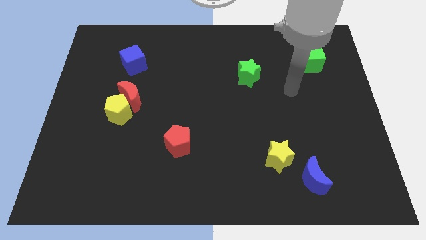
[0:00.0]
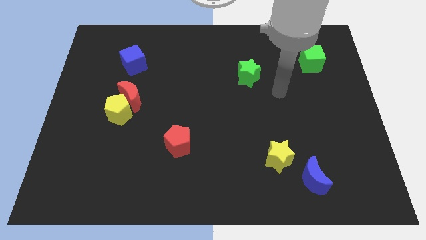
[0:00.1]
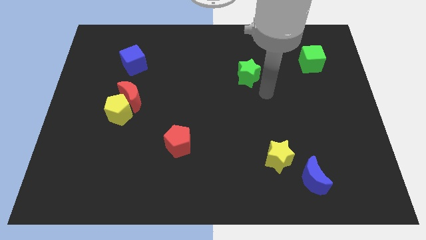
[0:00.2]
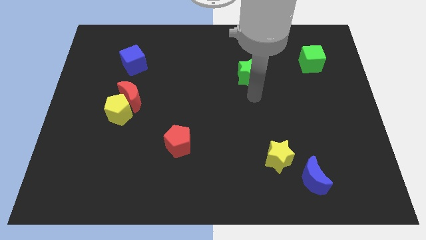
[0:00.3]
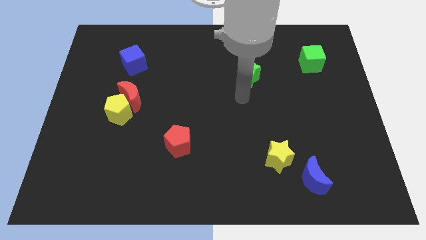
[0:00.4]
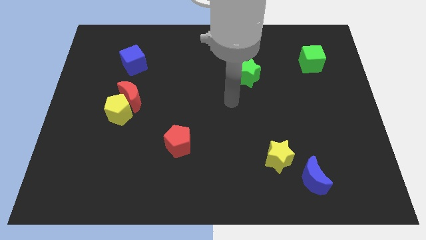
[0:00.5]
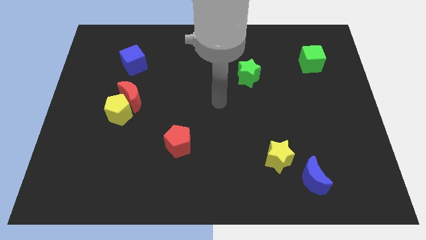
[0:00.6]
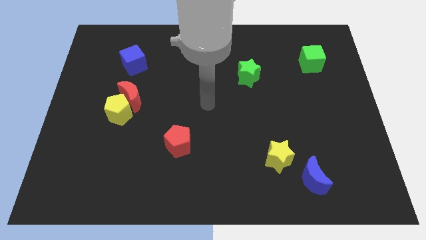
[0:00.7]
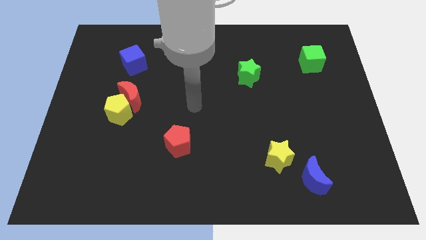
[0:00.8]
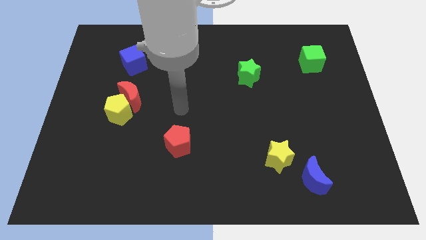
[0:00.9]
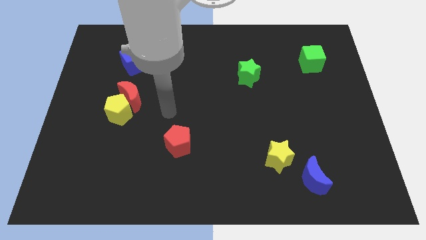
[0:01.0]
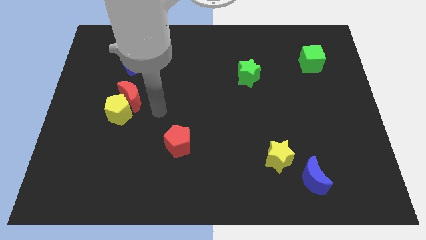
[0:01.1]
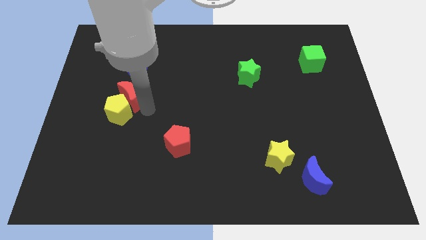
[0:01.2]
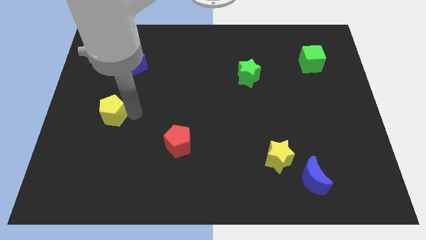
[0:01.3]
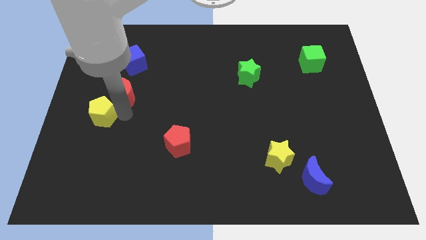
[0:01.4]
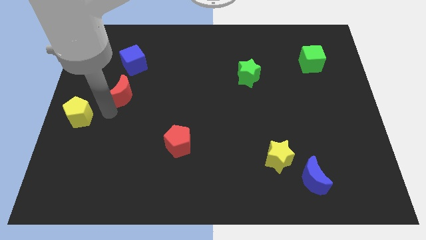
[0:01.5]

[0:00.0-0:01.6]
separate the red moon from the yellow pentagon

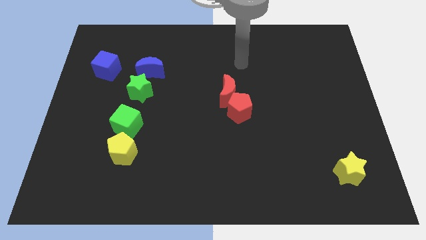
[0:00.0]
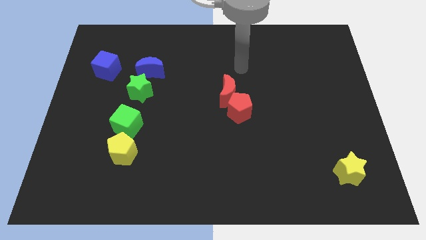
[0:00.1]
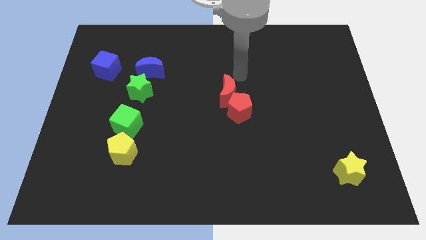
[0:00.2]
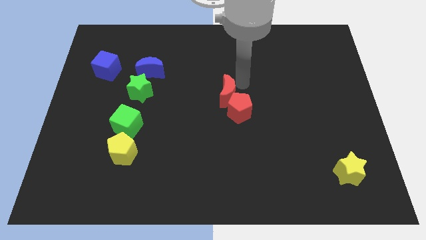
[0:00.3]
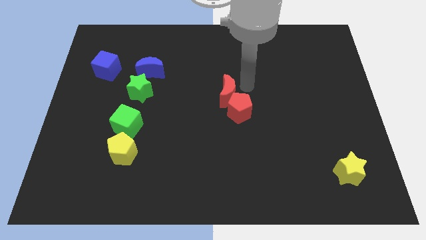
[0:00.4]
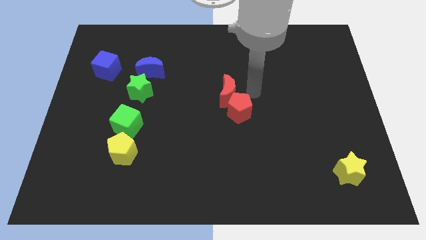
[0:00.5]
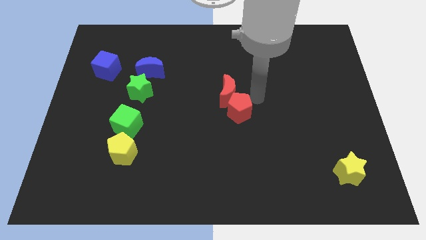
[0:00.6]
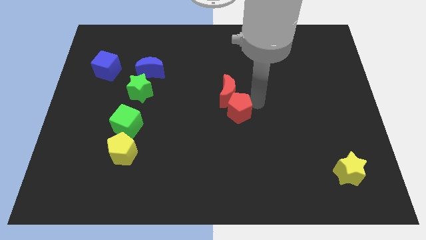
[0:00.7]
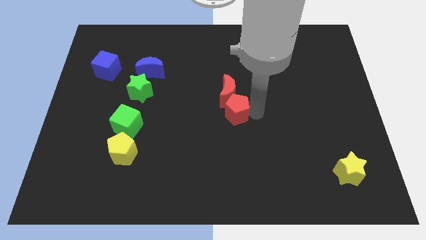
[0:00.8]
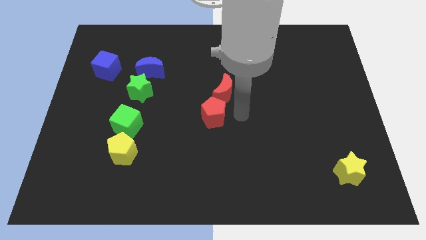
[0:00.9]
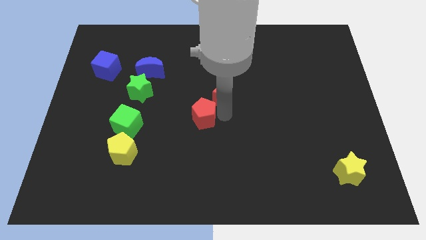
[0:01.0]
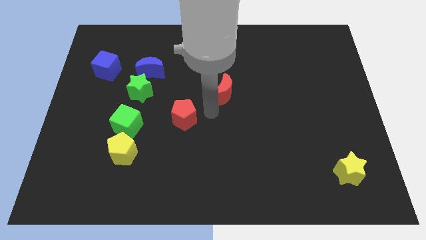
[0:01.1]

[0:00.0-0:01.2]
separate the red moon from the red pentagon

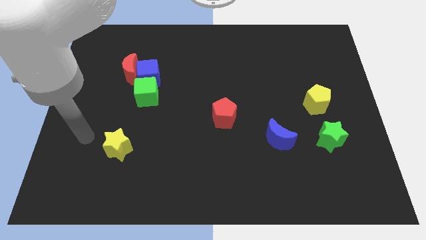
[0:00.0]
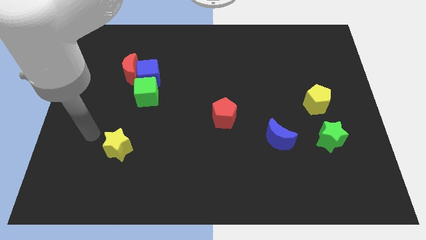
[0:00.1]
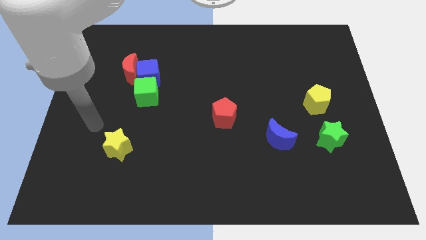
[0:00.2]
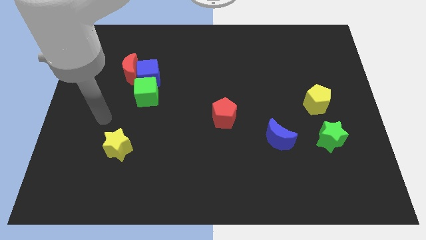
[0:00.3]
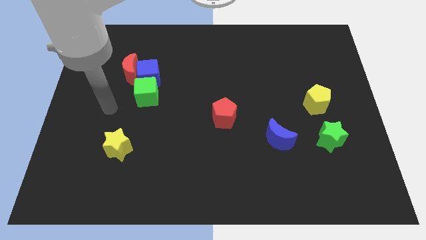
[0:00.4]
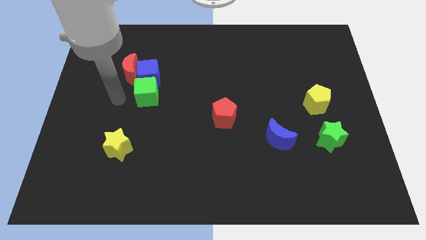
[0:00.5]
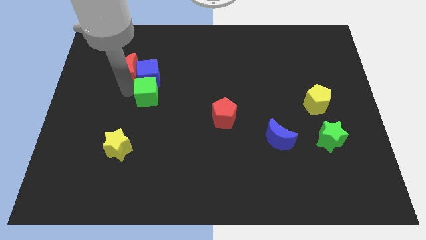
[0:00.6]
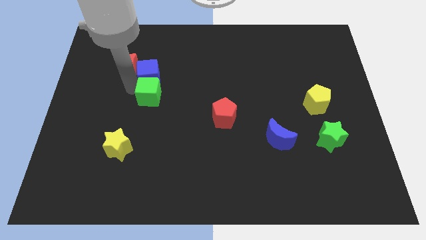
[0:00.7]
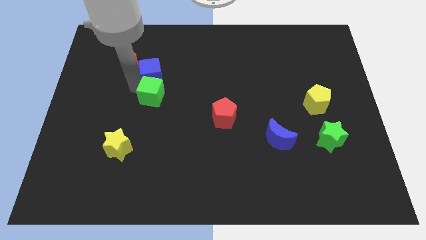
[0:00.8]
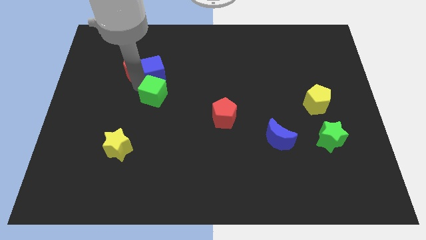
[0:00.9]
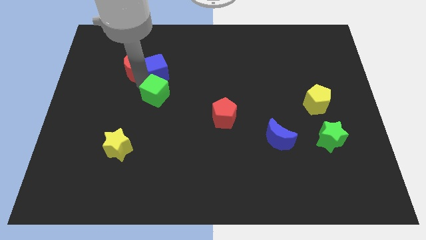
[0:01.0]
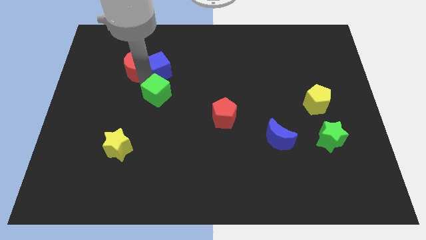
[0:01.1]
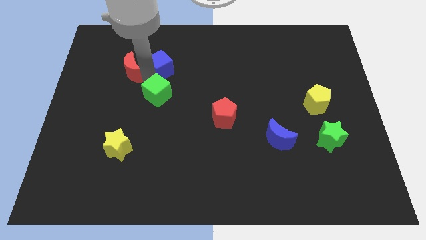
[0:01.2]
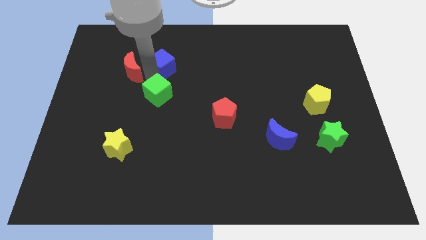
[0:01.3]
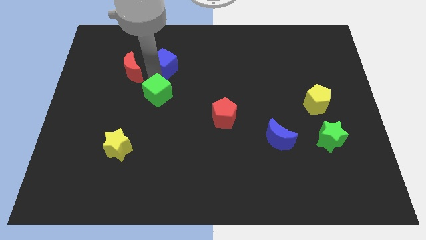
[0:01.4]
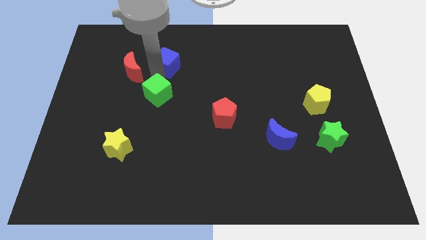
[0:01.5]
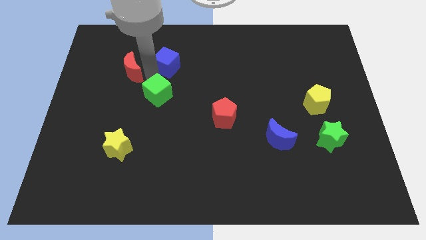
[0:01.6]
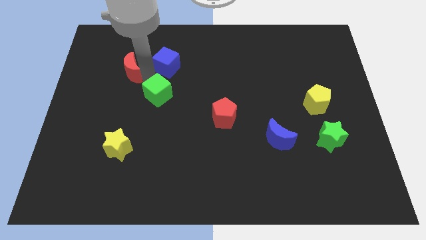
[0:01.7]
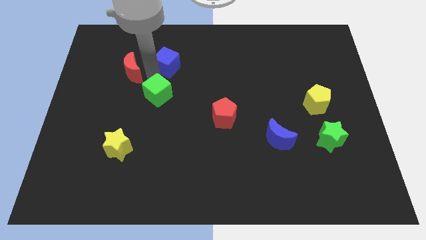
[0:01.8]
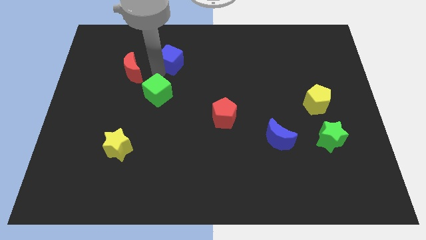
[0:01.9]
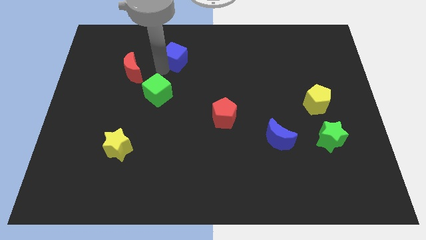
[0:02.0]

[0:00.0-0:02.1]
move the blue cube away from the red moon and green cube

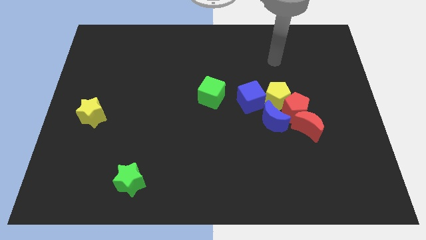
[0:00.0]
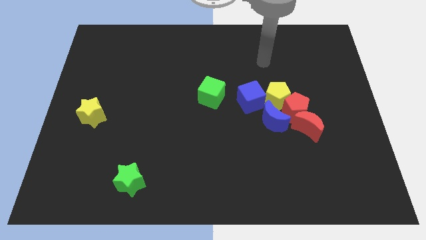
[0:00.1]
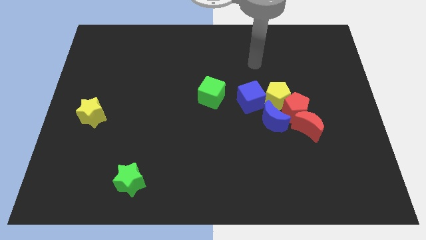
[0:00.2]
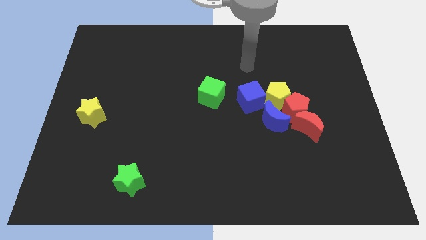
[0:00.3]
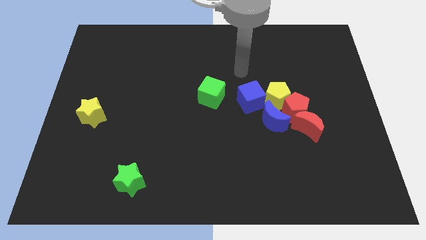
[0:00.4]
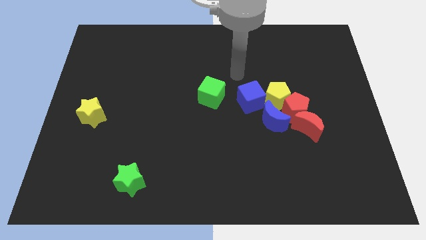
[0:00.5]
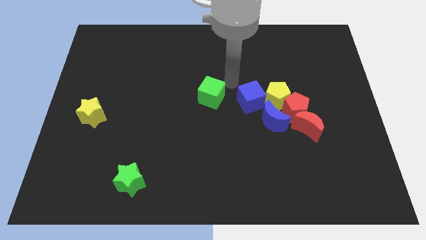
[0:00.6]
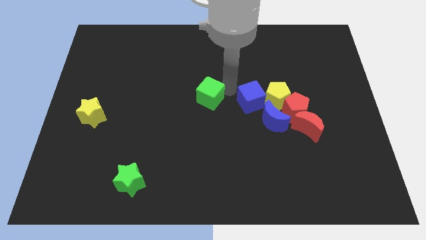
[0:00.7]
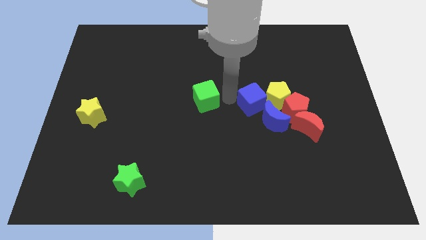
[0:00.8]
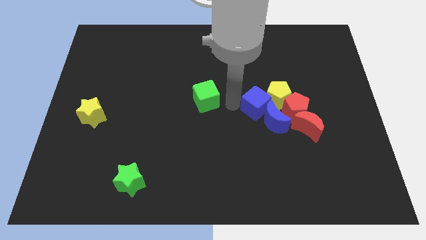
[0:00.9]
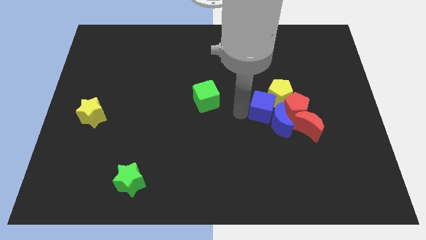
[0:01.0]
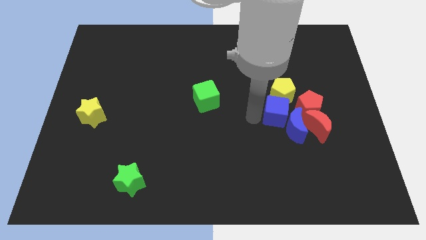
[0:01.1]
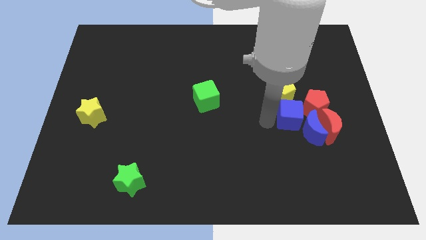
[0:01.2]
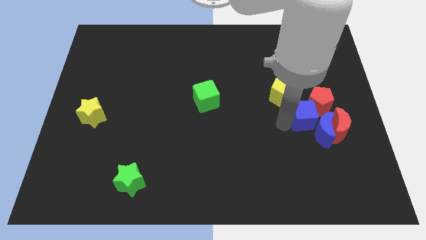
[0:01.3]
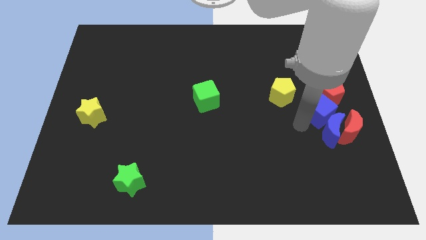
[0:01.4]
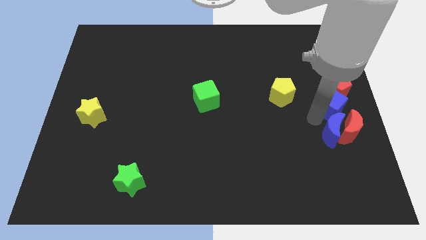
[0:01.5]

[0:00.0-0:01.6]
move the red pentagon away from the yellow pentagon, red moon, and blue moon

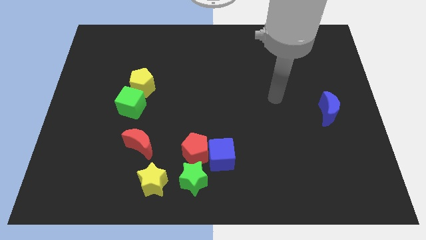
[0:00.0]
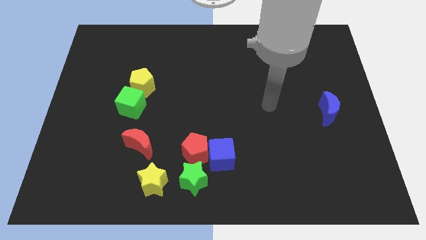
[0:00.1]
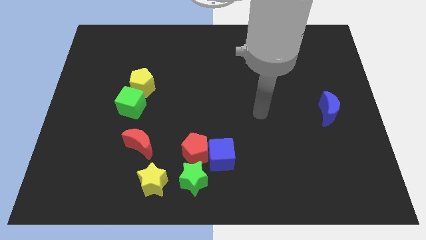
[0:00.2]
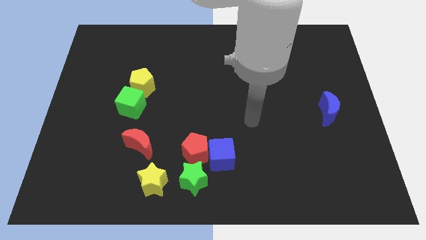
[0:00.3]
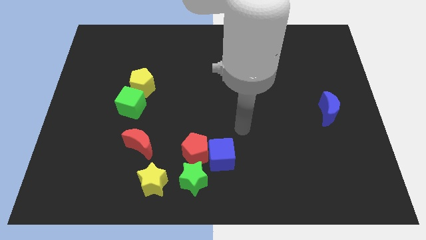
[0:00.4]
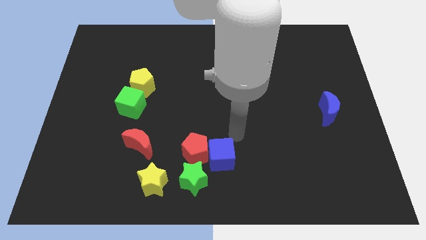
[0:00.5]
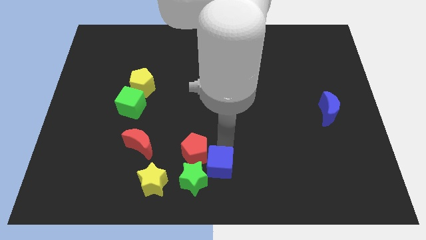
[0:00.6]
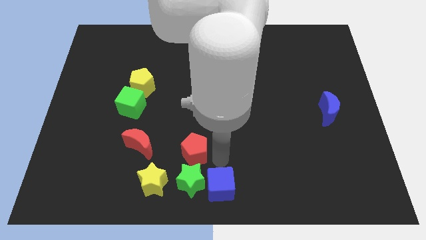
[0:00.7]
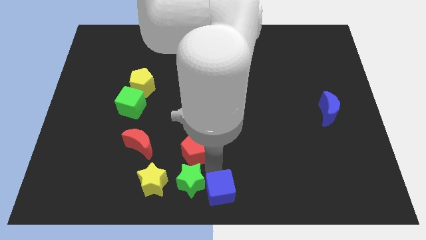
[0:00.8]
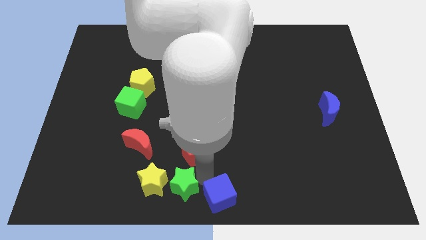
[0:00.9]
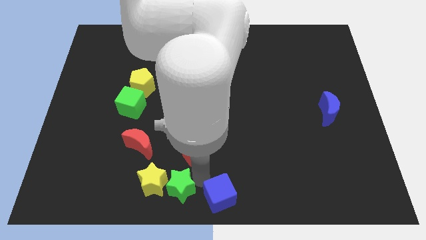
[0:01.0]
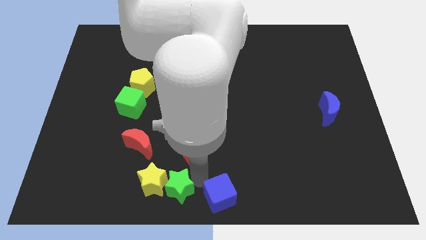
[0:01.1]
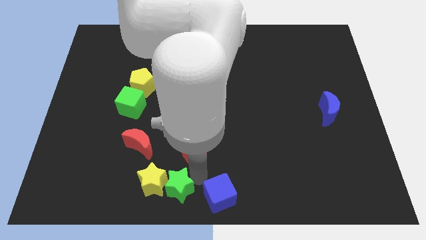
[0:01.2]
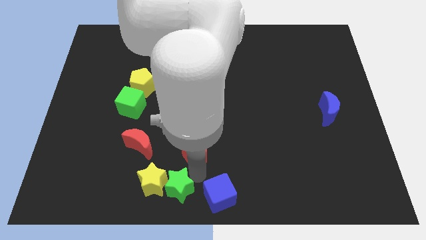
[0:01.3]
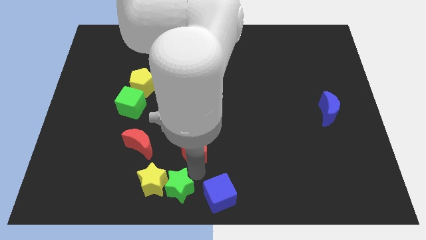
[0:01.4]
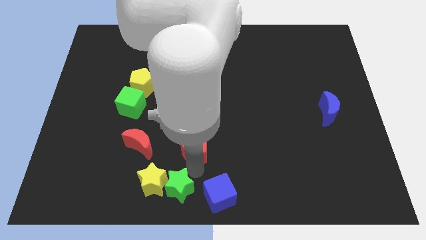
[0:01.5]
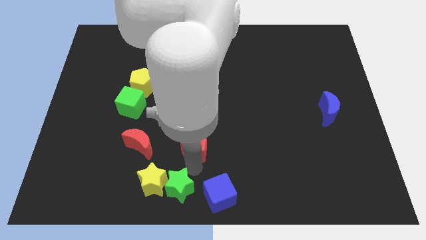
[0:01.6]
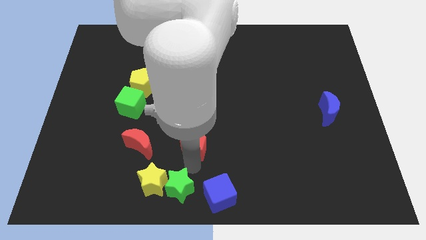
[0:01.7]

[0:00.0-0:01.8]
pull the red pentagon apart from the blue cube and green star

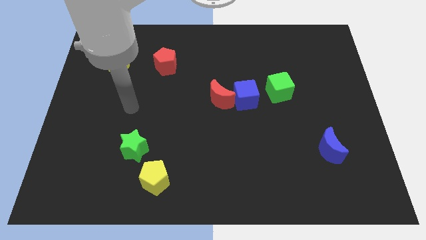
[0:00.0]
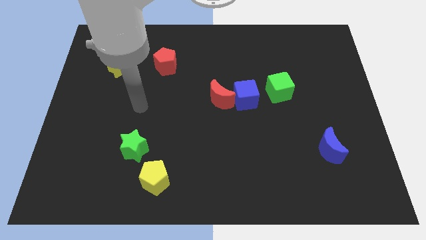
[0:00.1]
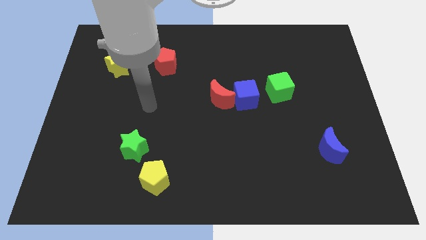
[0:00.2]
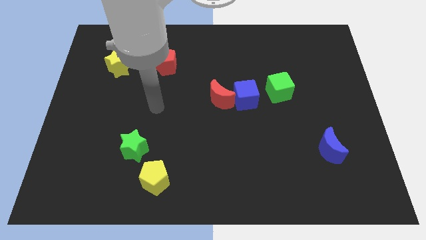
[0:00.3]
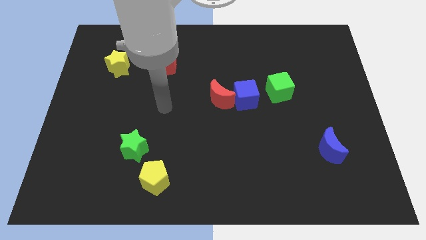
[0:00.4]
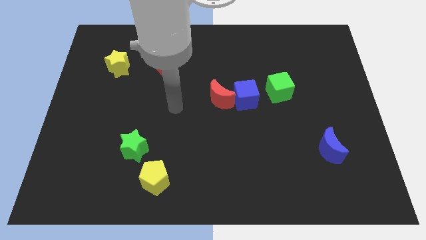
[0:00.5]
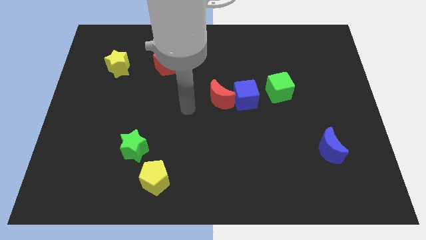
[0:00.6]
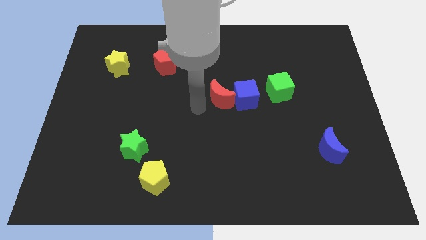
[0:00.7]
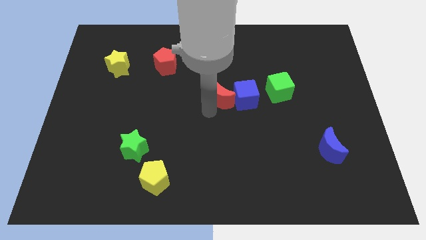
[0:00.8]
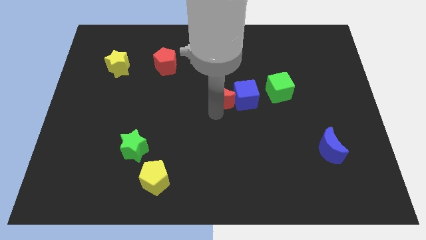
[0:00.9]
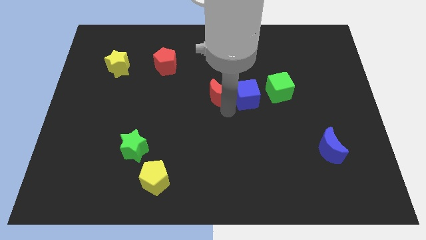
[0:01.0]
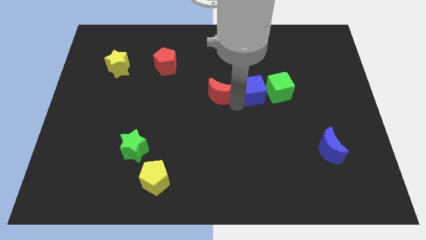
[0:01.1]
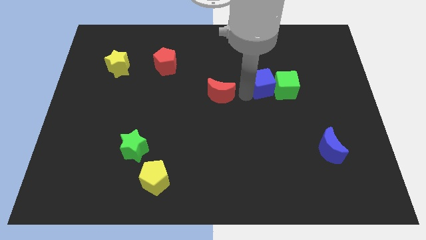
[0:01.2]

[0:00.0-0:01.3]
pull the red moon apart from the blue cube
